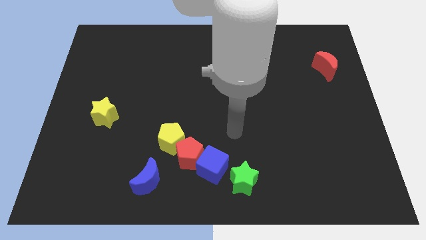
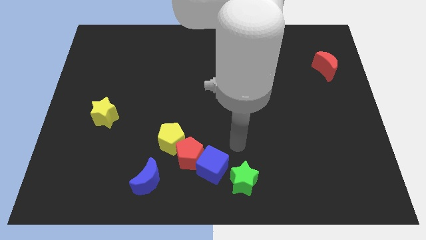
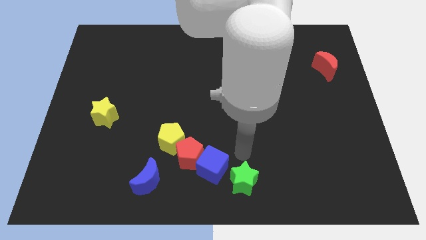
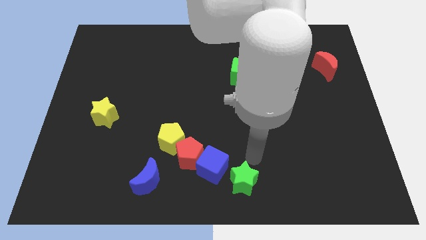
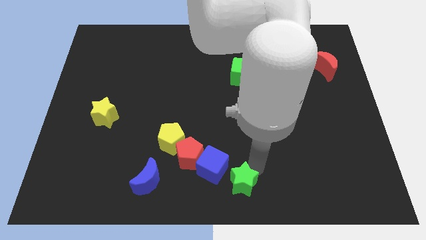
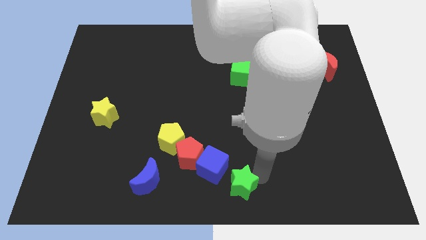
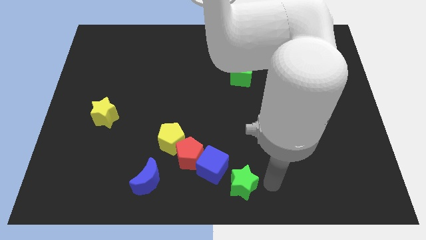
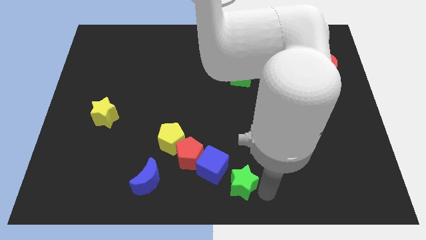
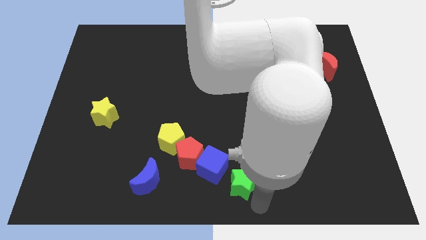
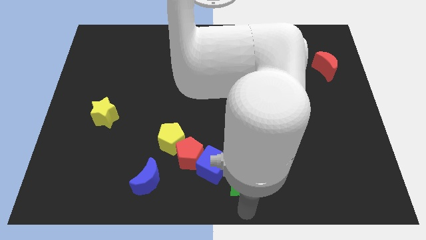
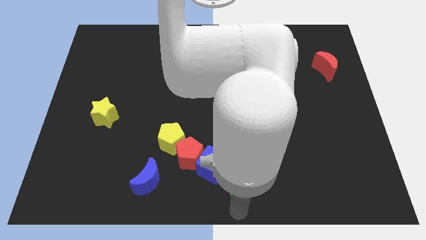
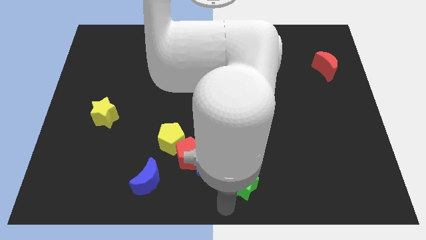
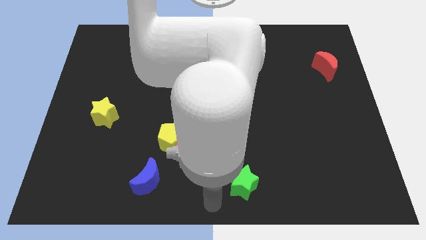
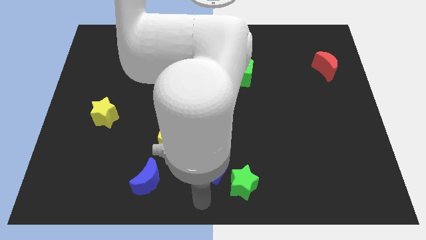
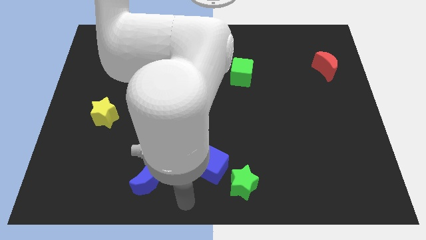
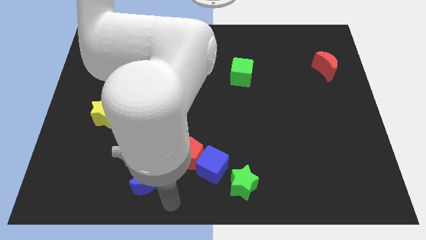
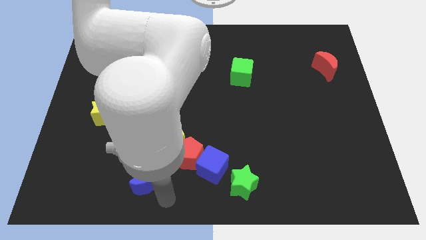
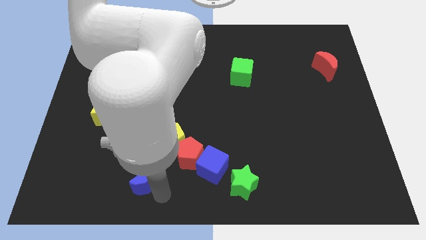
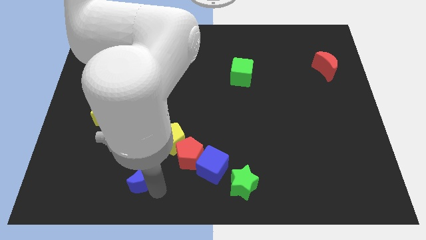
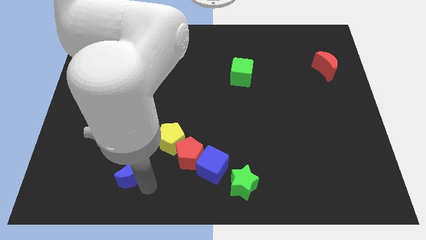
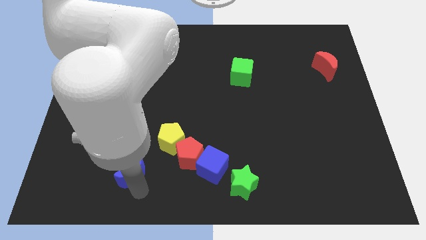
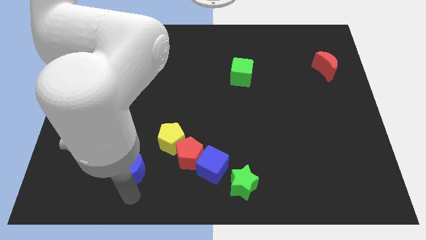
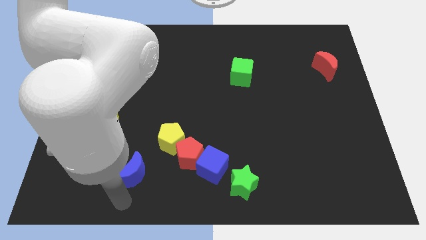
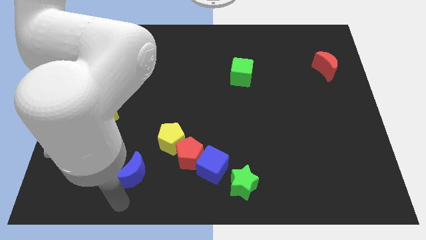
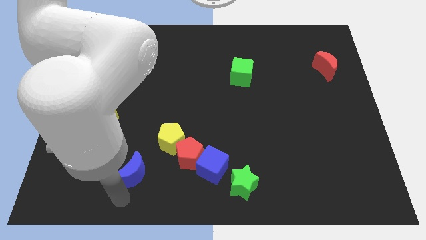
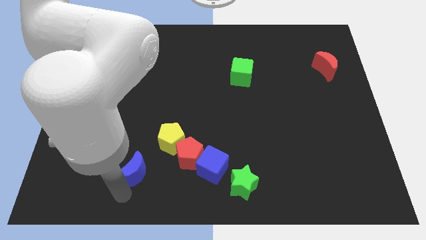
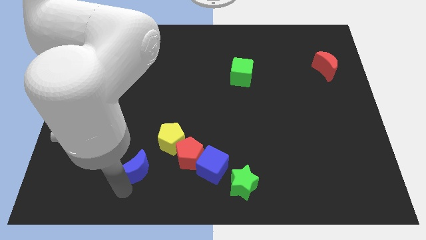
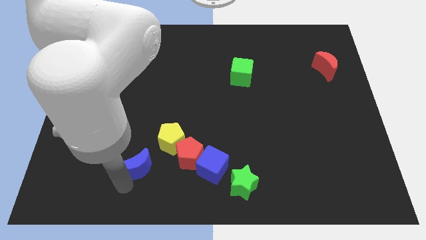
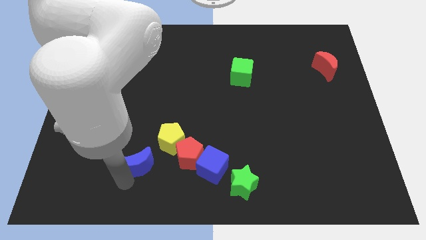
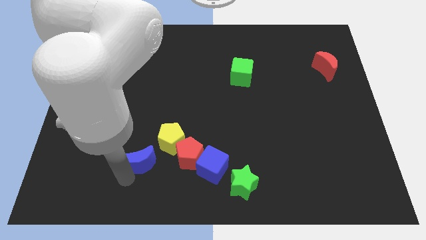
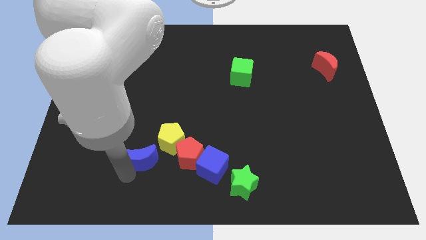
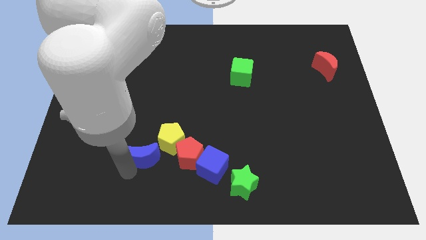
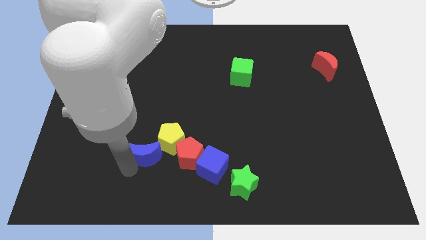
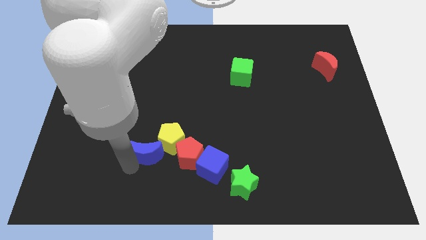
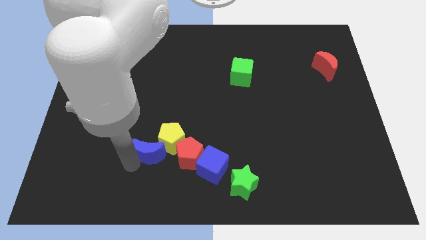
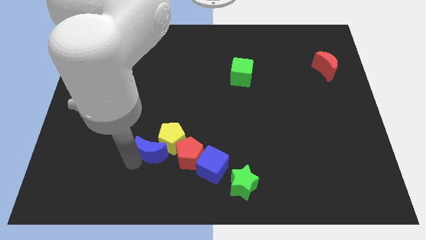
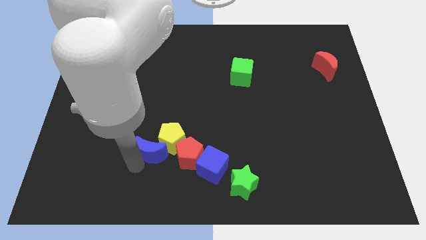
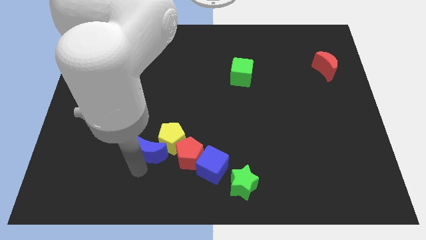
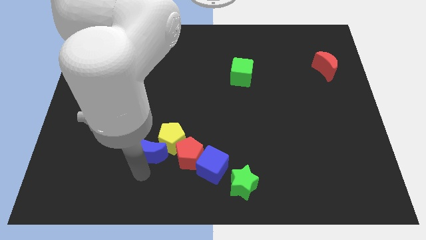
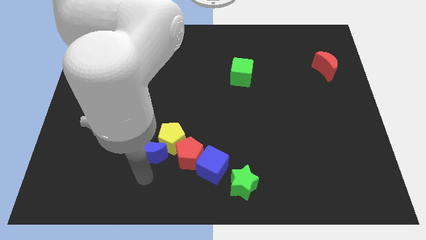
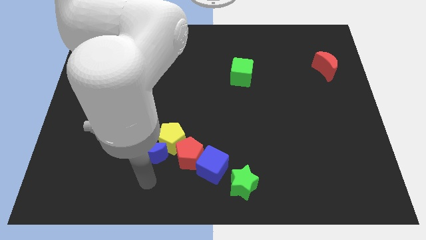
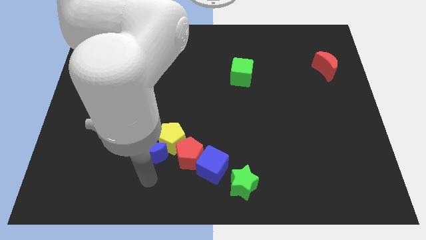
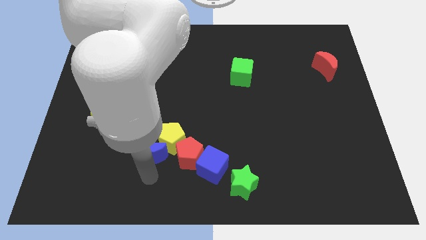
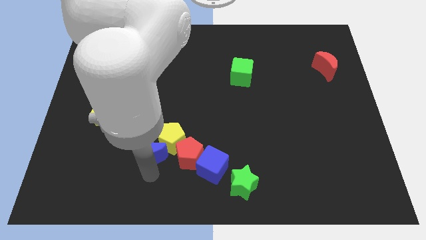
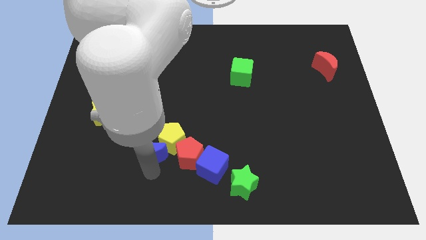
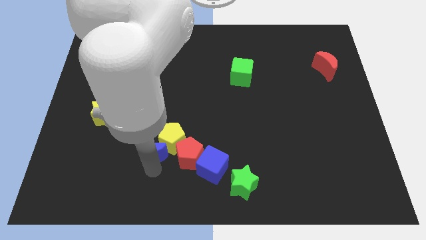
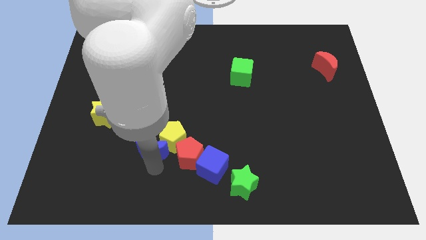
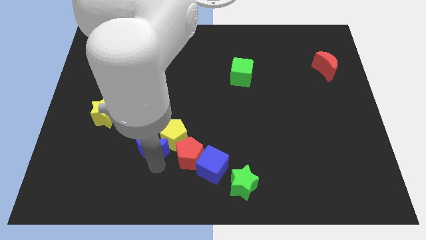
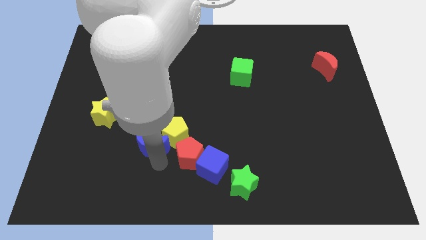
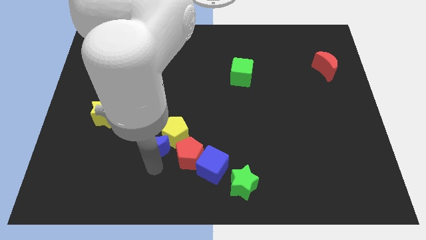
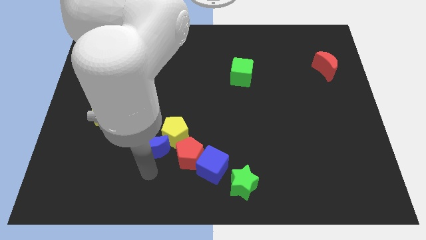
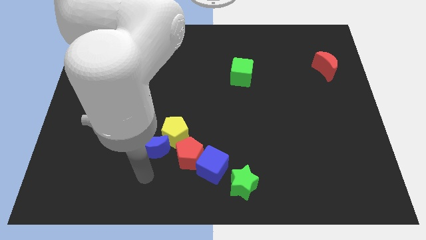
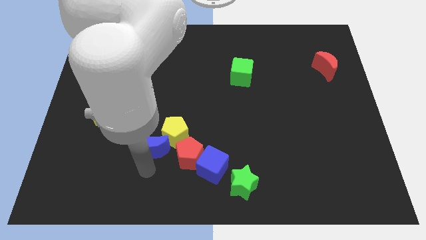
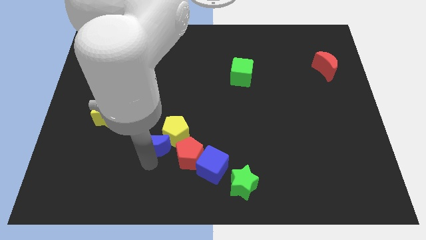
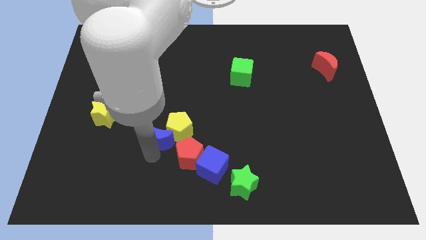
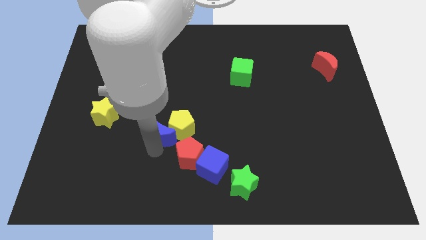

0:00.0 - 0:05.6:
push the blue moon a bit upwards and then right

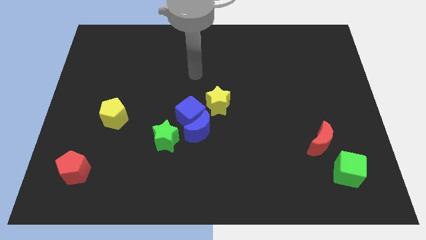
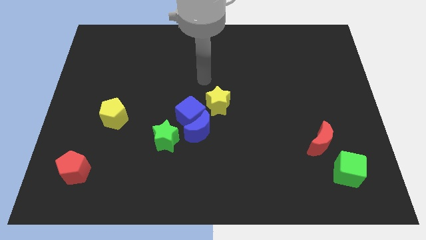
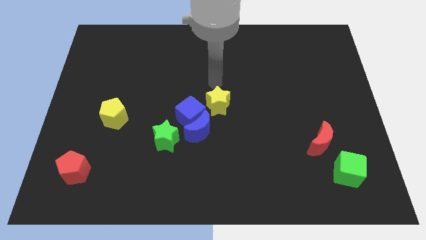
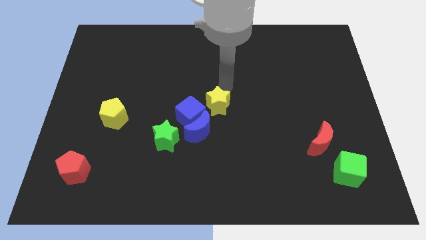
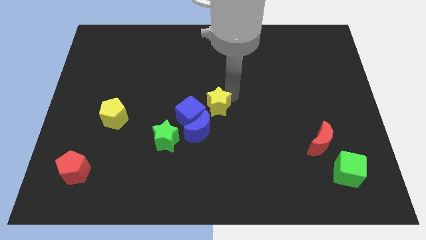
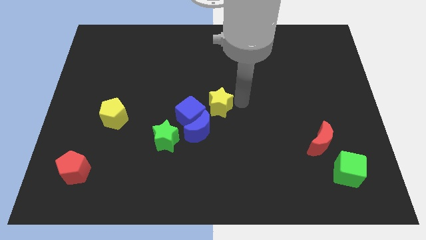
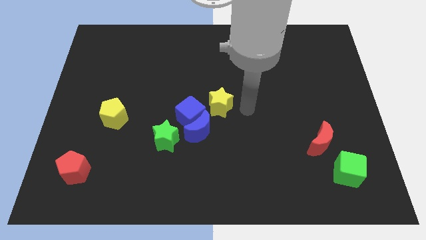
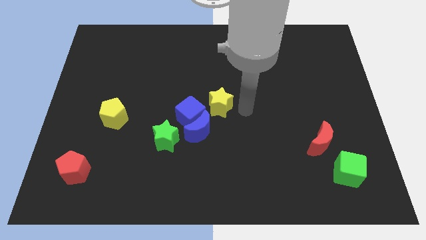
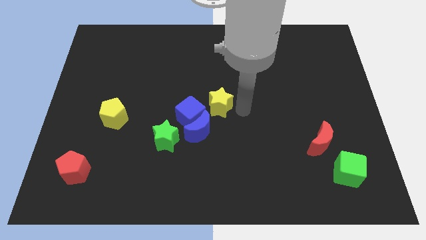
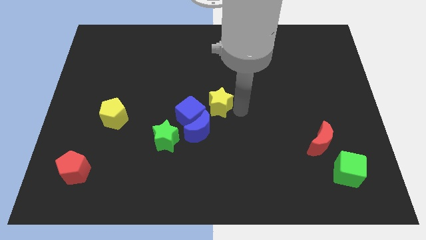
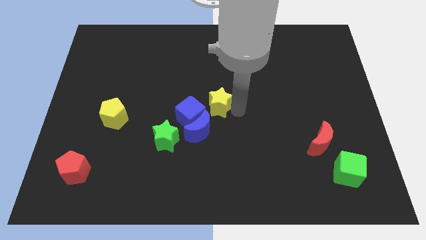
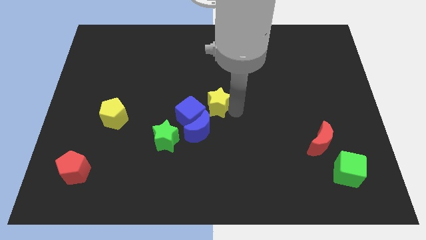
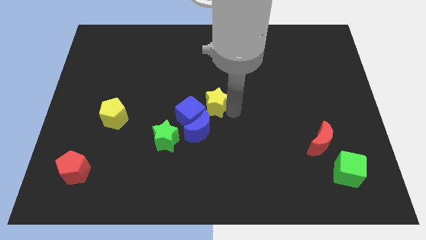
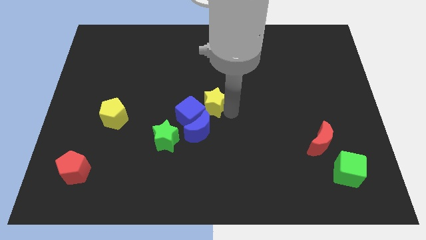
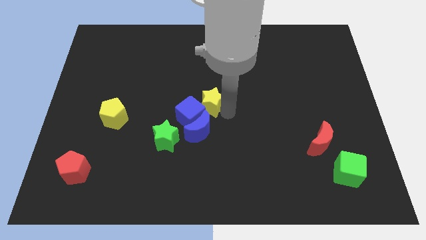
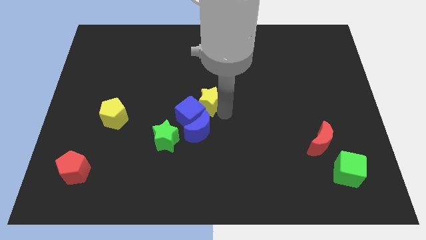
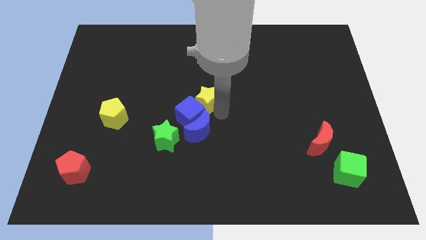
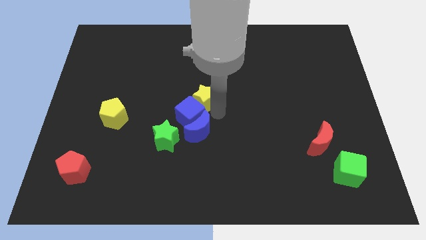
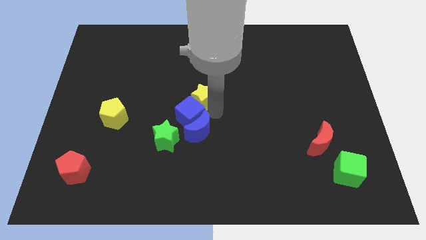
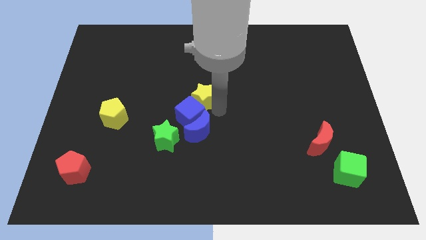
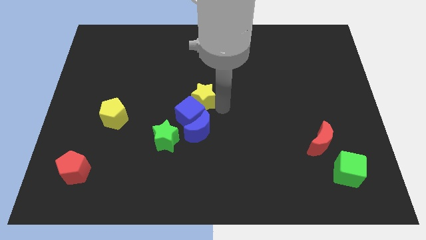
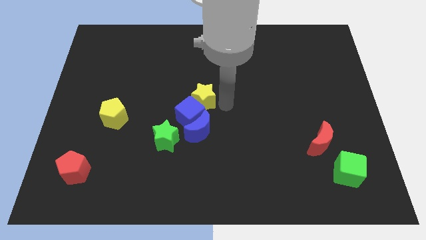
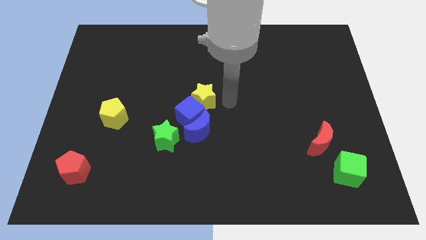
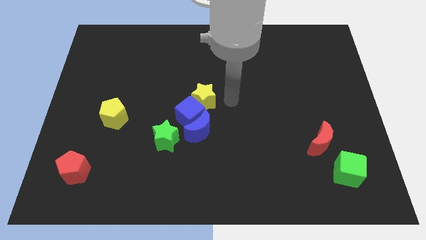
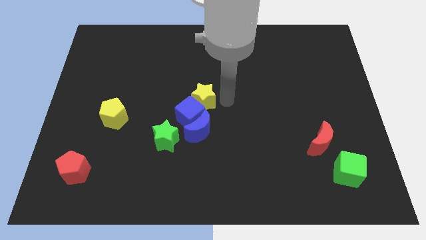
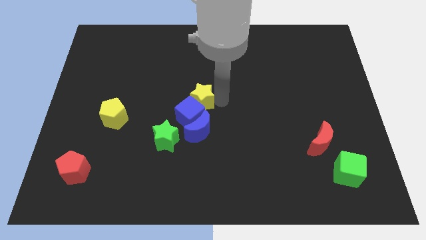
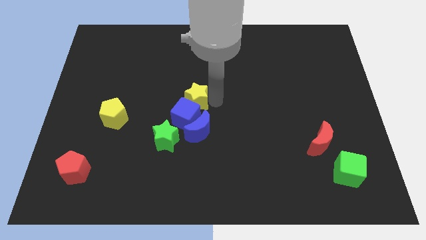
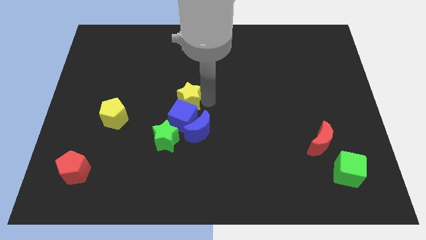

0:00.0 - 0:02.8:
slide the yellow star left slightly
